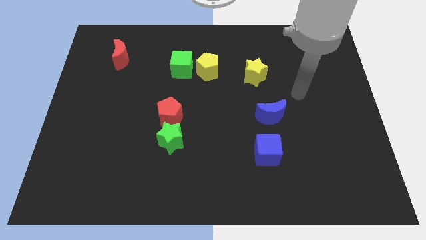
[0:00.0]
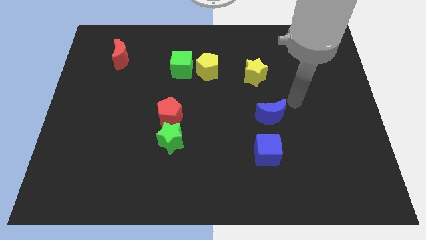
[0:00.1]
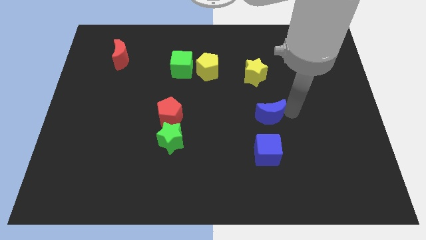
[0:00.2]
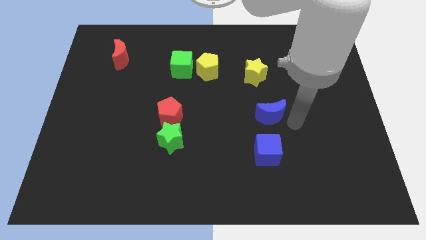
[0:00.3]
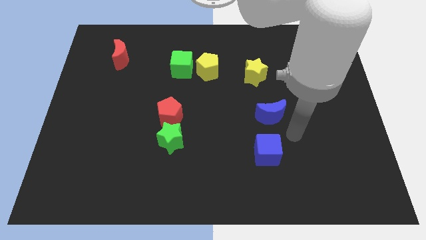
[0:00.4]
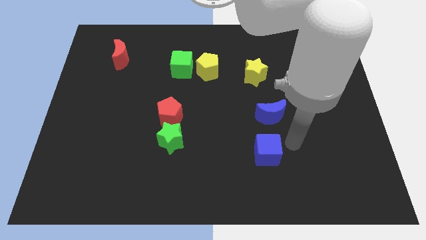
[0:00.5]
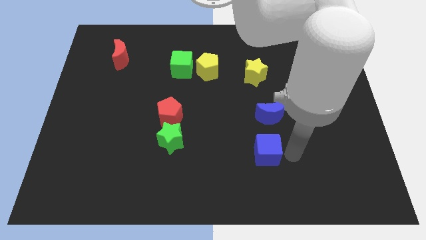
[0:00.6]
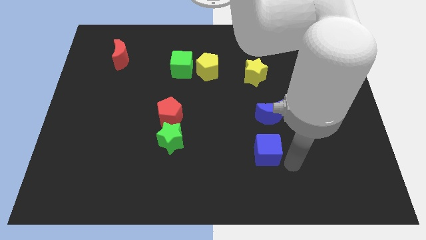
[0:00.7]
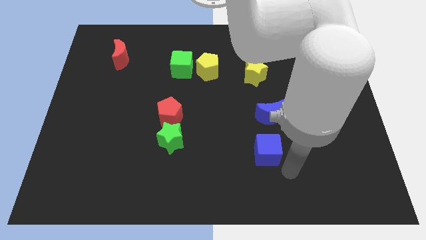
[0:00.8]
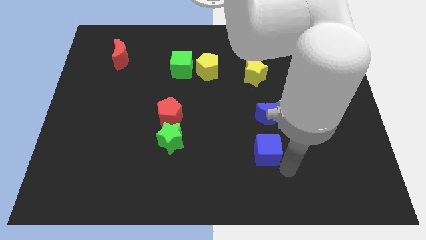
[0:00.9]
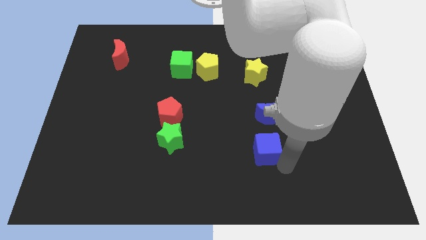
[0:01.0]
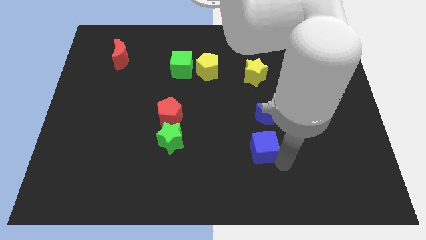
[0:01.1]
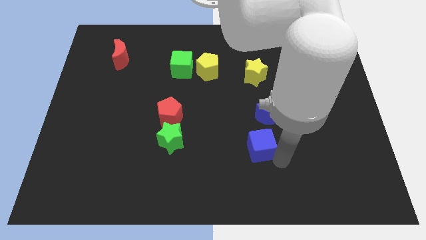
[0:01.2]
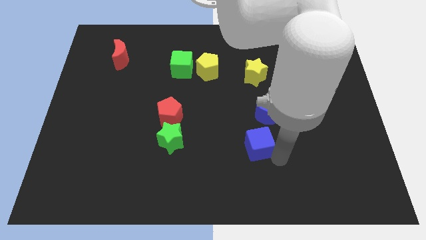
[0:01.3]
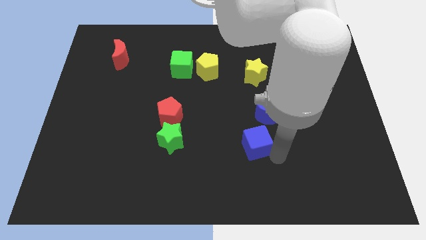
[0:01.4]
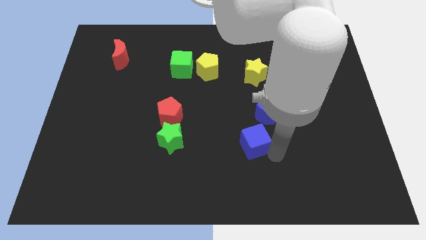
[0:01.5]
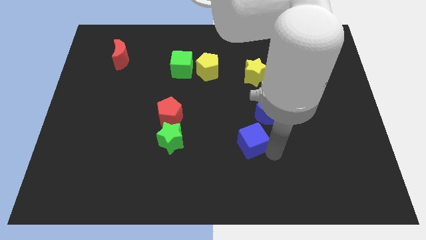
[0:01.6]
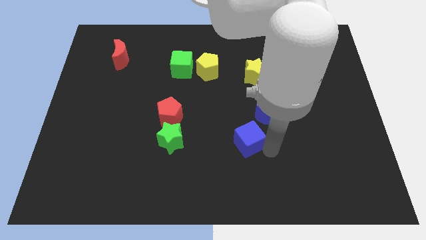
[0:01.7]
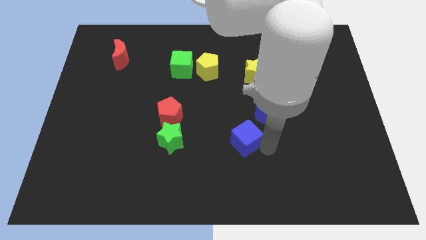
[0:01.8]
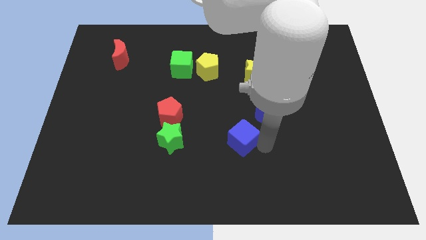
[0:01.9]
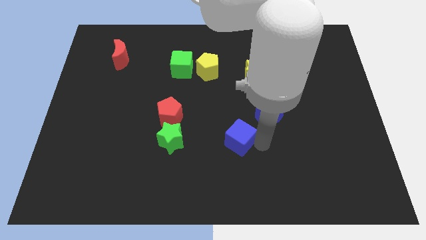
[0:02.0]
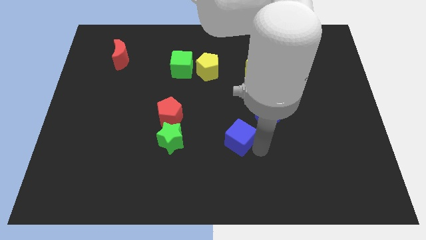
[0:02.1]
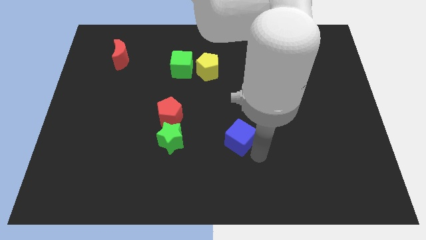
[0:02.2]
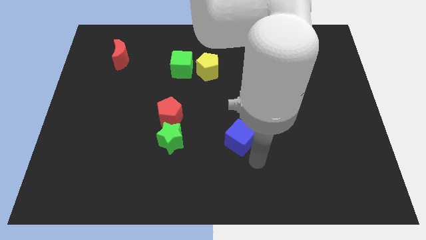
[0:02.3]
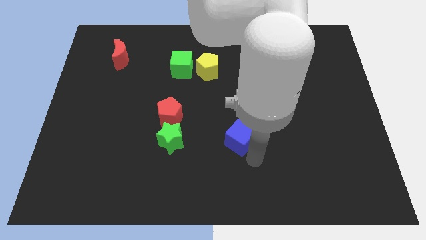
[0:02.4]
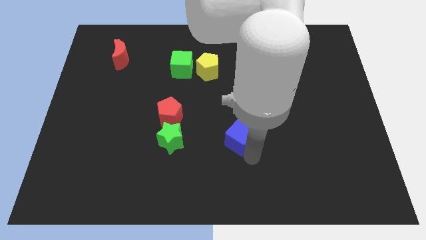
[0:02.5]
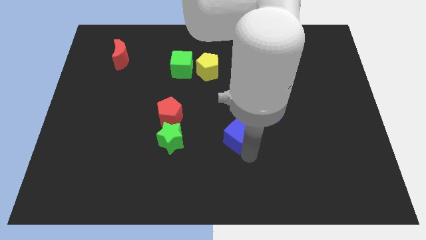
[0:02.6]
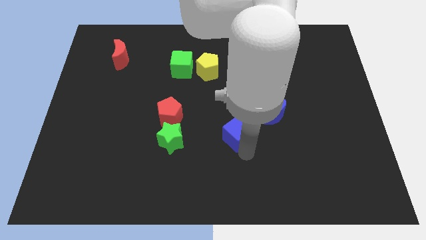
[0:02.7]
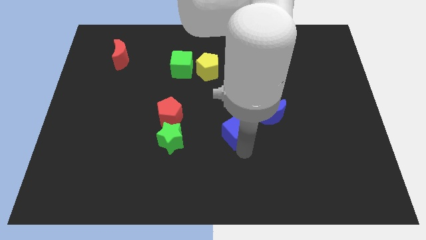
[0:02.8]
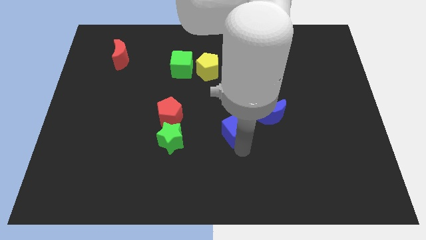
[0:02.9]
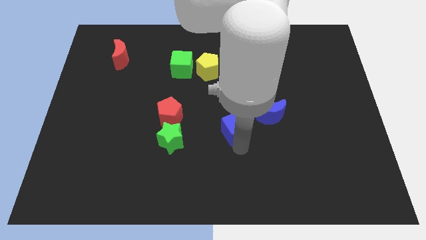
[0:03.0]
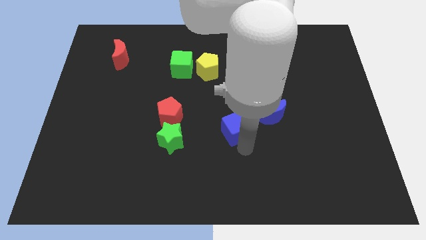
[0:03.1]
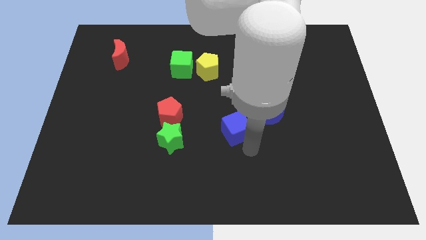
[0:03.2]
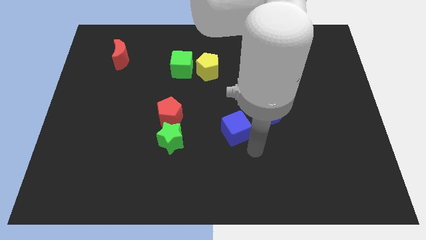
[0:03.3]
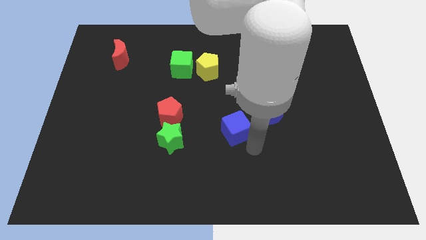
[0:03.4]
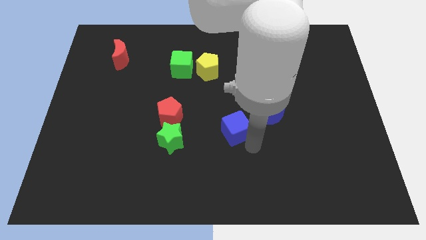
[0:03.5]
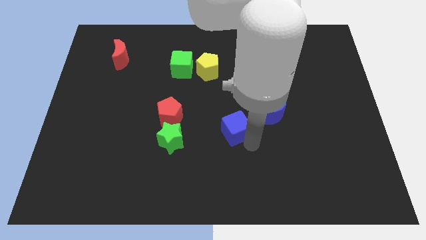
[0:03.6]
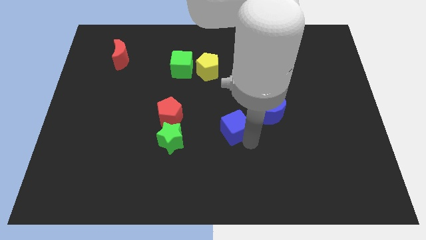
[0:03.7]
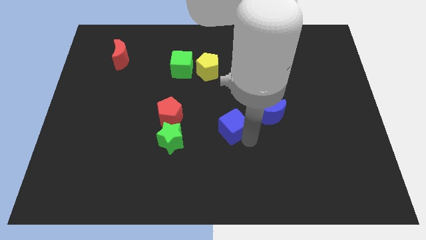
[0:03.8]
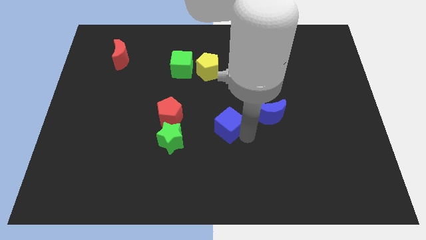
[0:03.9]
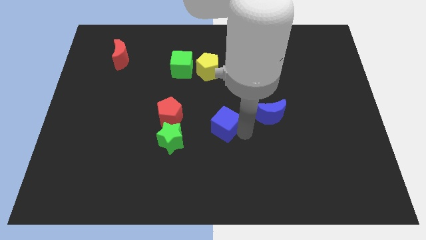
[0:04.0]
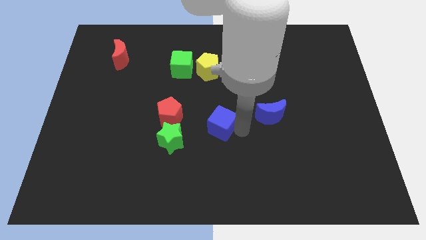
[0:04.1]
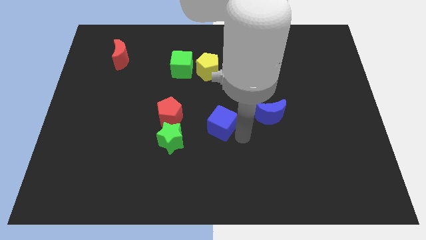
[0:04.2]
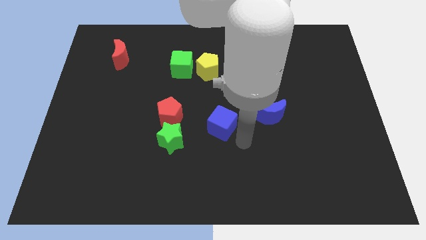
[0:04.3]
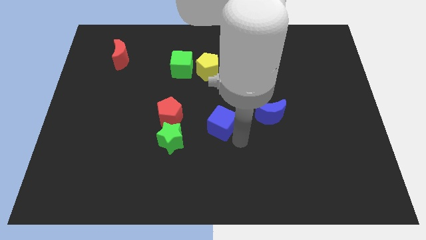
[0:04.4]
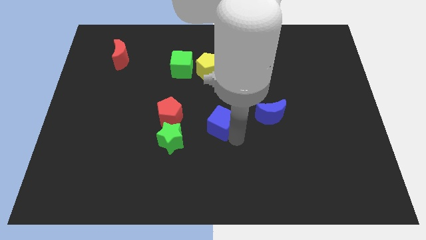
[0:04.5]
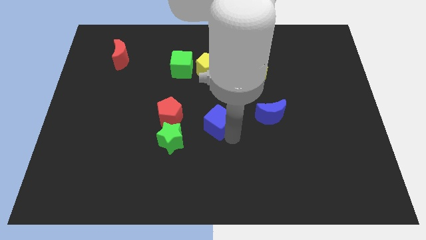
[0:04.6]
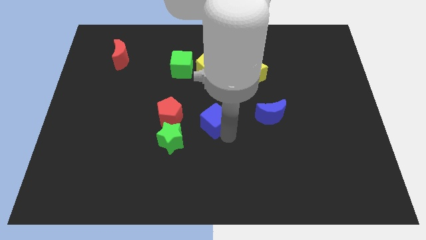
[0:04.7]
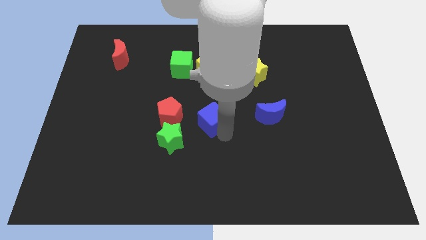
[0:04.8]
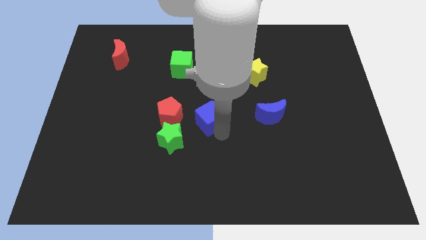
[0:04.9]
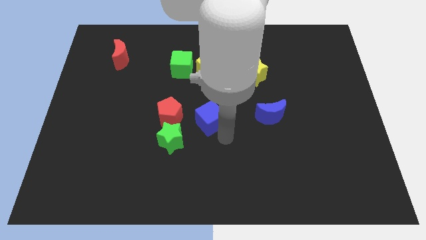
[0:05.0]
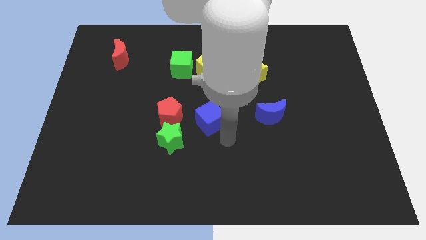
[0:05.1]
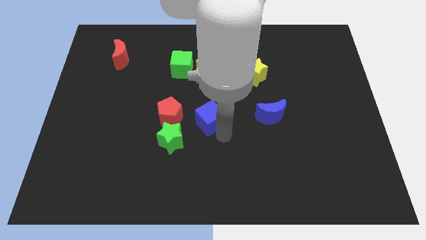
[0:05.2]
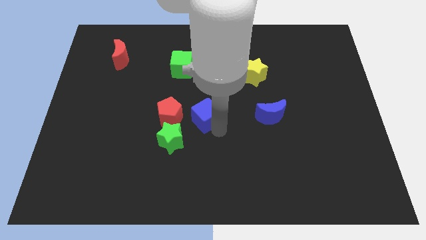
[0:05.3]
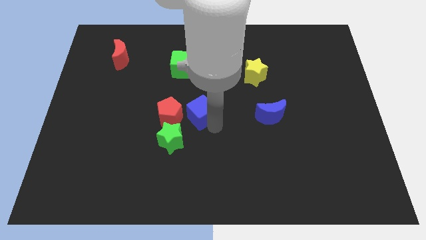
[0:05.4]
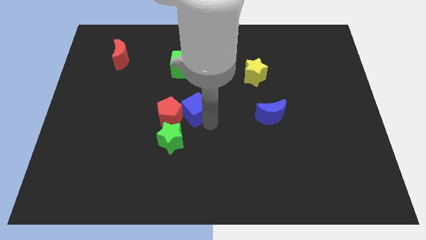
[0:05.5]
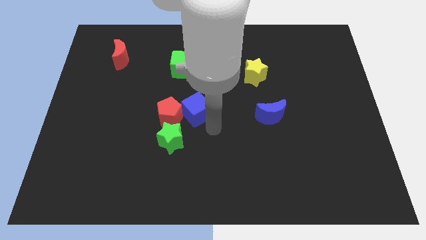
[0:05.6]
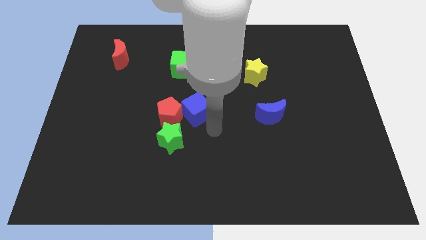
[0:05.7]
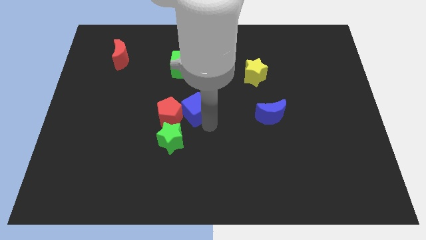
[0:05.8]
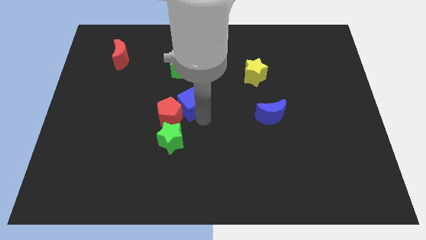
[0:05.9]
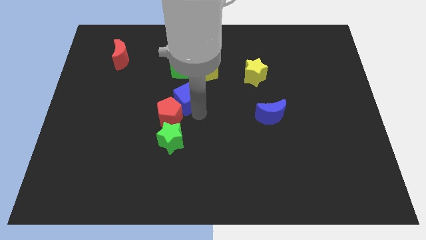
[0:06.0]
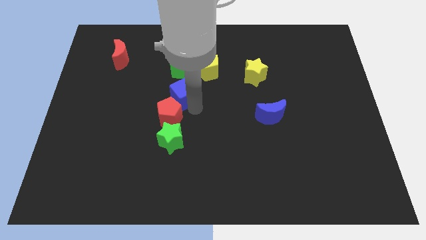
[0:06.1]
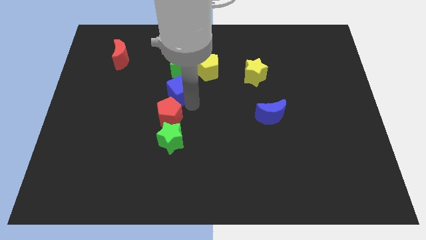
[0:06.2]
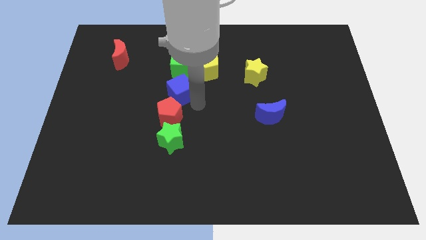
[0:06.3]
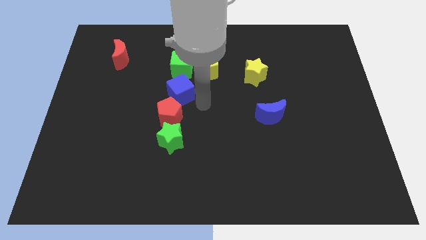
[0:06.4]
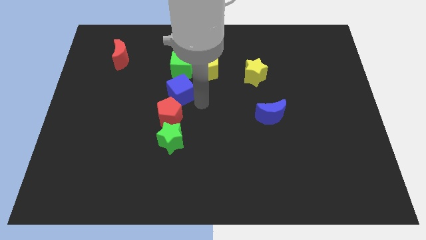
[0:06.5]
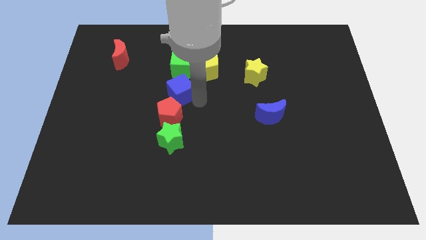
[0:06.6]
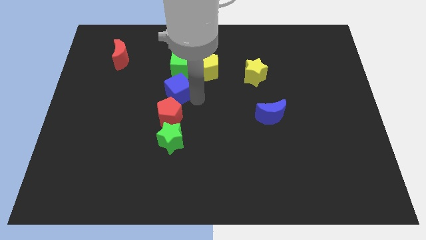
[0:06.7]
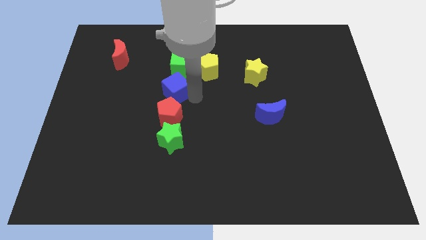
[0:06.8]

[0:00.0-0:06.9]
put the blue cube diagonally down and to the left of the green cube
